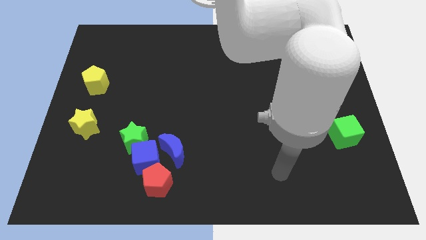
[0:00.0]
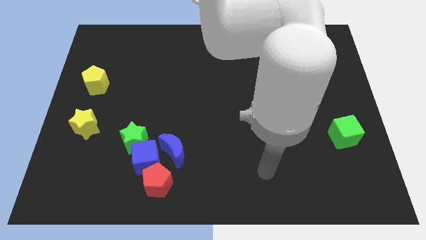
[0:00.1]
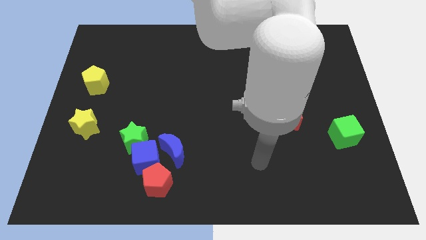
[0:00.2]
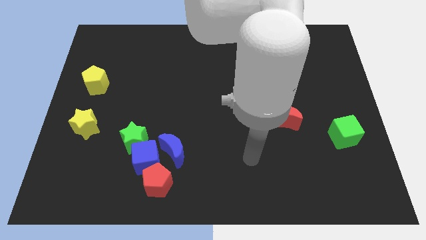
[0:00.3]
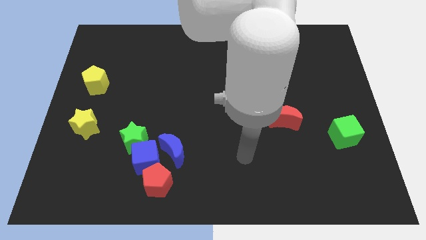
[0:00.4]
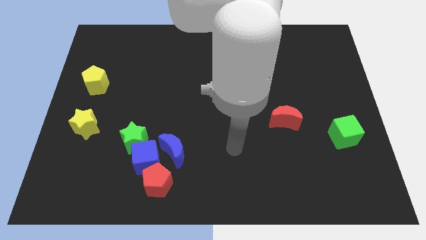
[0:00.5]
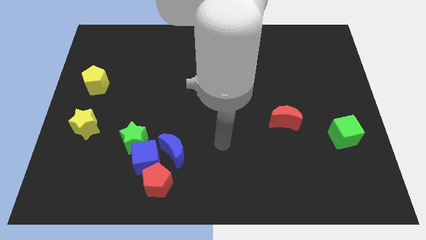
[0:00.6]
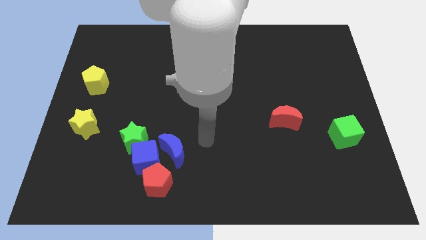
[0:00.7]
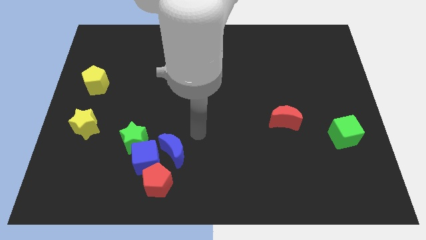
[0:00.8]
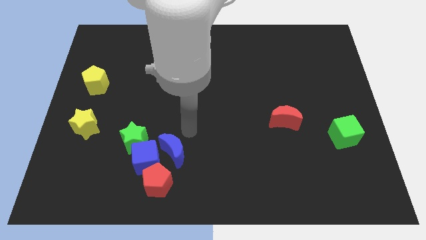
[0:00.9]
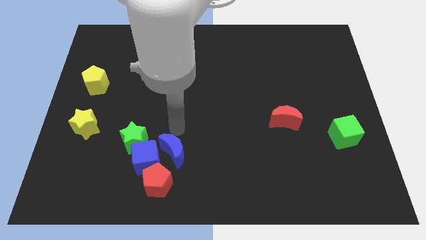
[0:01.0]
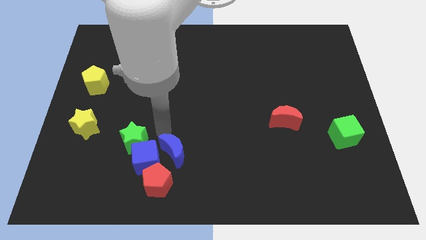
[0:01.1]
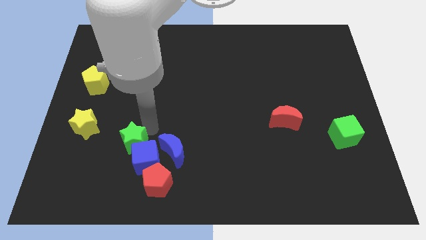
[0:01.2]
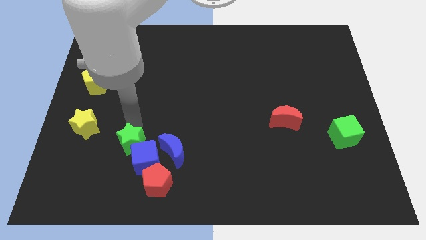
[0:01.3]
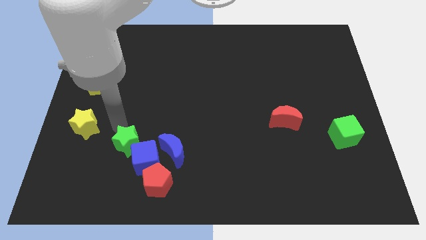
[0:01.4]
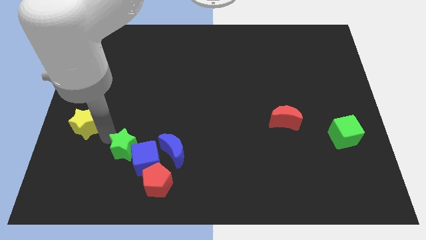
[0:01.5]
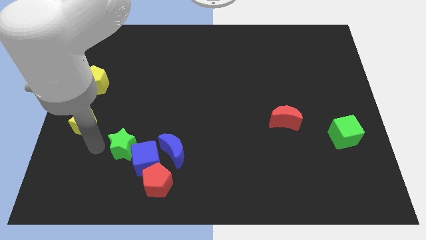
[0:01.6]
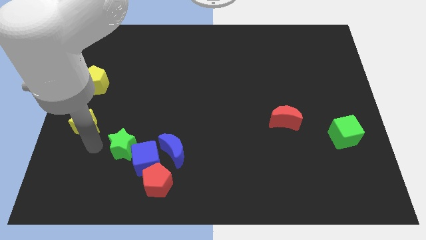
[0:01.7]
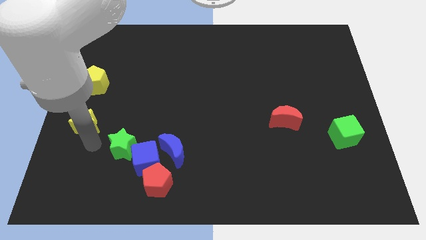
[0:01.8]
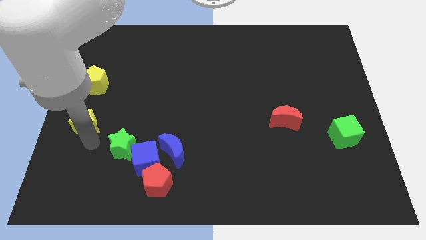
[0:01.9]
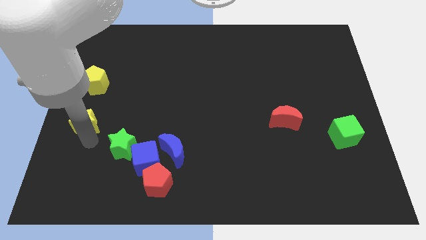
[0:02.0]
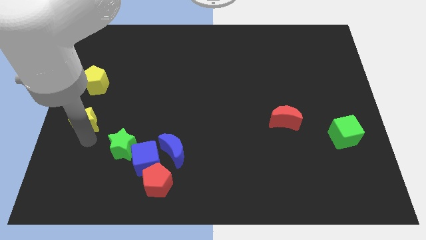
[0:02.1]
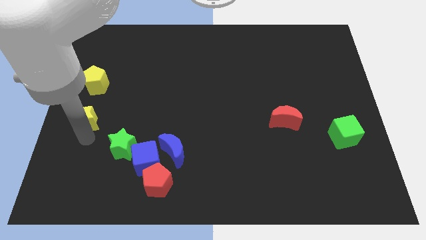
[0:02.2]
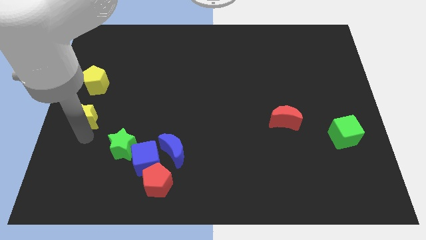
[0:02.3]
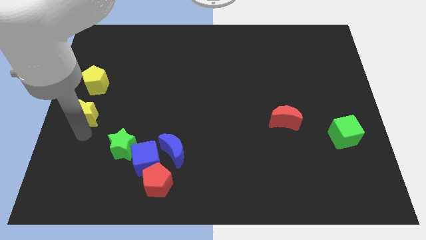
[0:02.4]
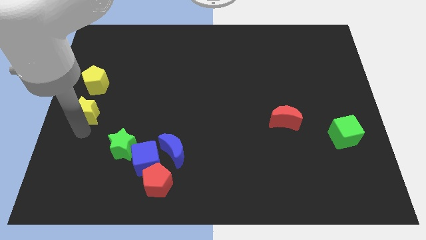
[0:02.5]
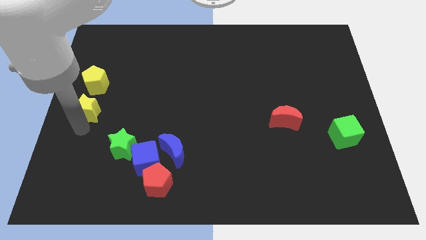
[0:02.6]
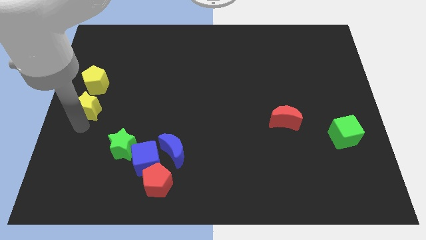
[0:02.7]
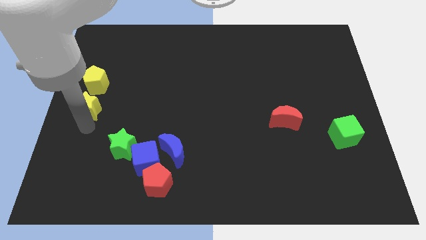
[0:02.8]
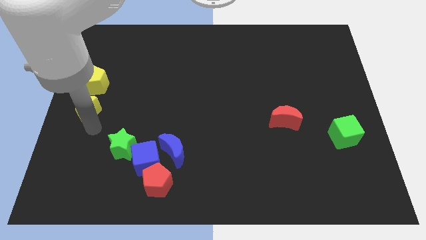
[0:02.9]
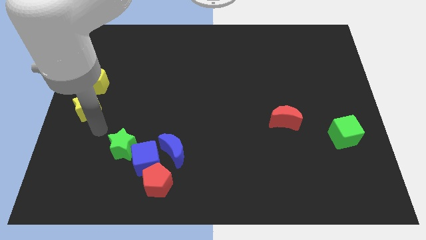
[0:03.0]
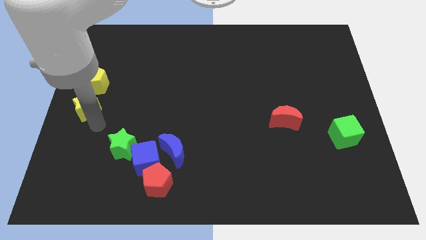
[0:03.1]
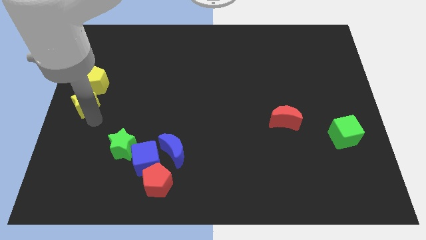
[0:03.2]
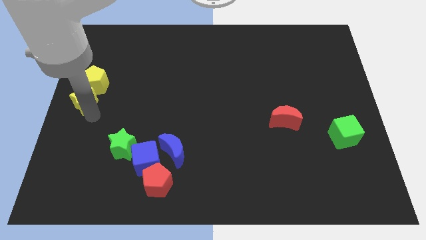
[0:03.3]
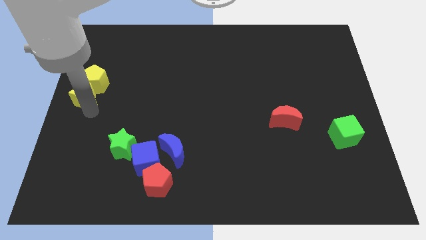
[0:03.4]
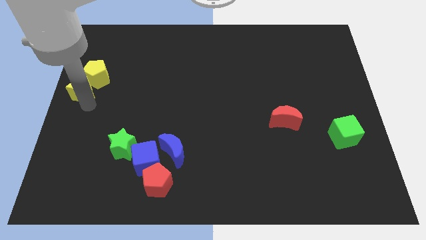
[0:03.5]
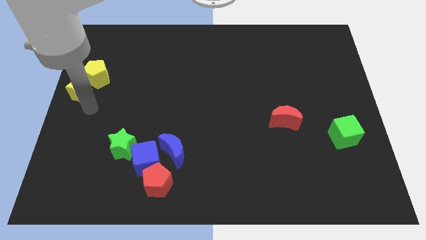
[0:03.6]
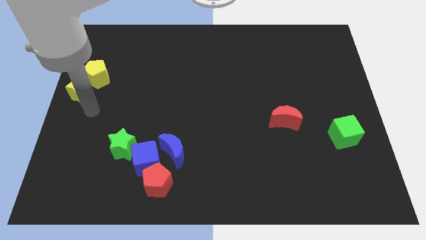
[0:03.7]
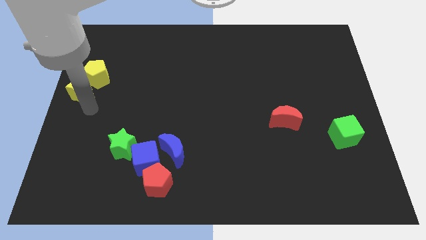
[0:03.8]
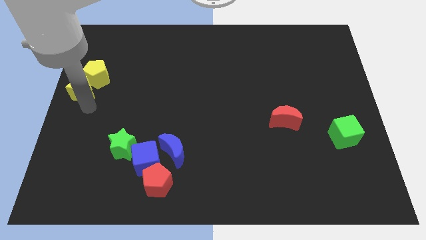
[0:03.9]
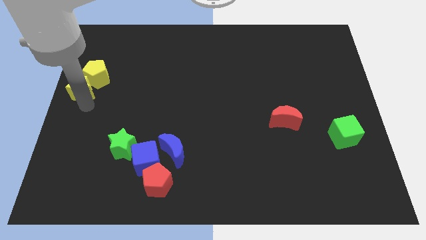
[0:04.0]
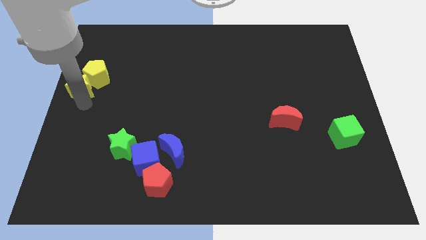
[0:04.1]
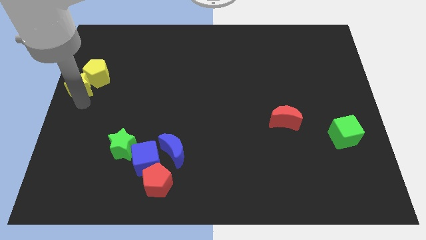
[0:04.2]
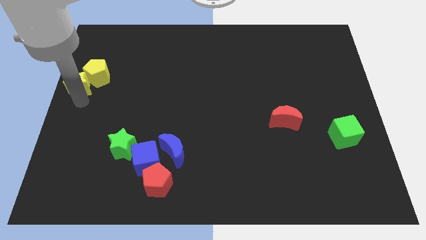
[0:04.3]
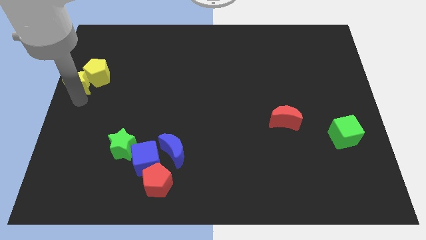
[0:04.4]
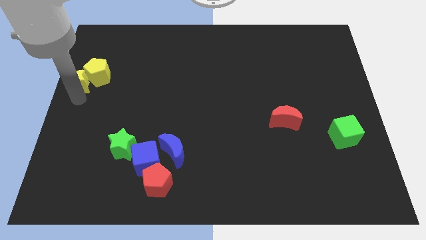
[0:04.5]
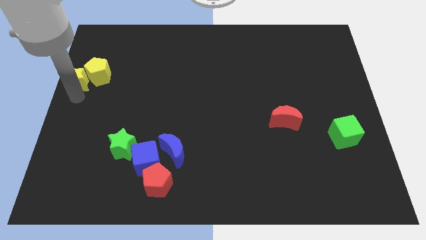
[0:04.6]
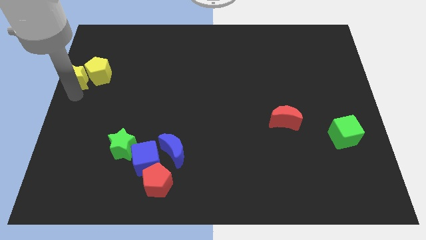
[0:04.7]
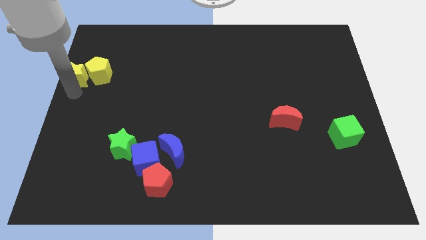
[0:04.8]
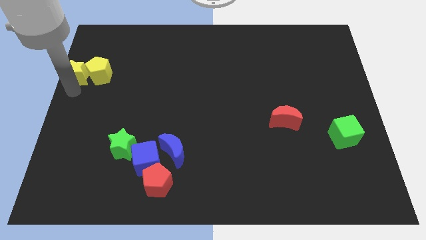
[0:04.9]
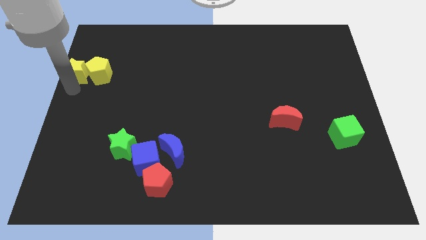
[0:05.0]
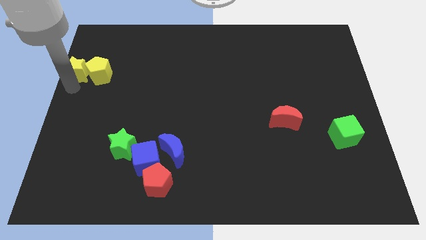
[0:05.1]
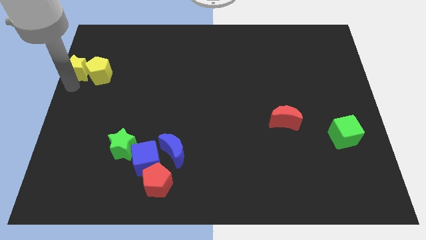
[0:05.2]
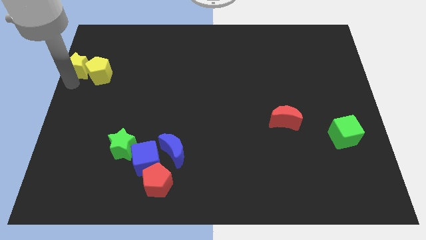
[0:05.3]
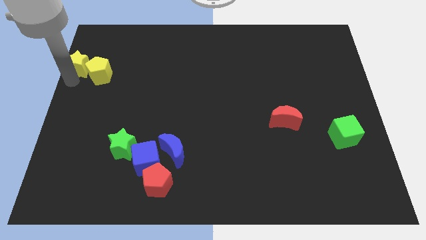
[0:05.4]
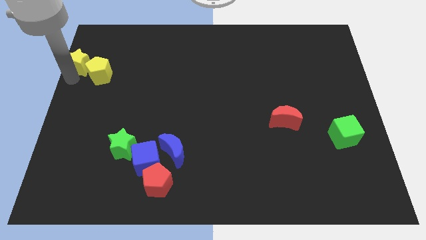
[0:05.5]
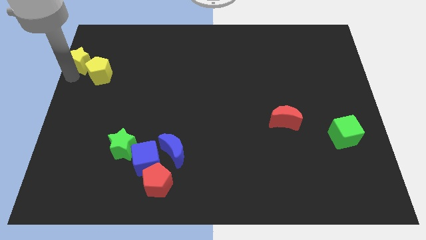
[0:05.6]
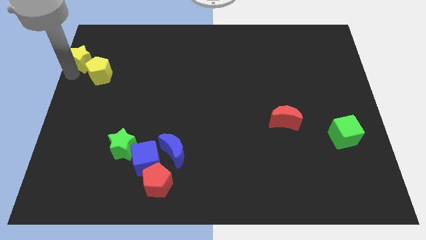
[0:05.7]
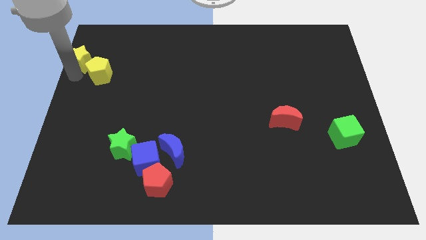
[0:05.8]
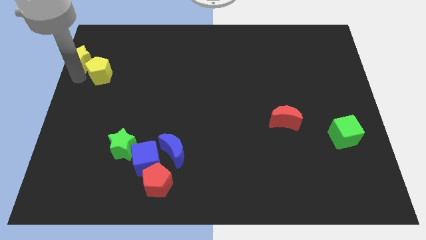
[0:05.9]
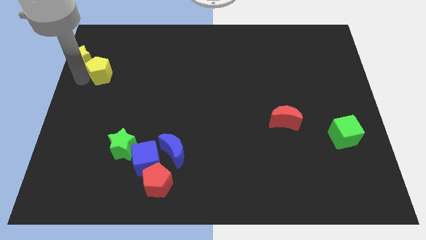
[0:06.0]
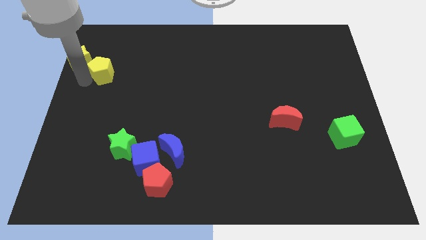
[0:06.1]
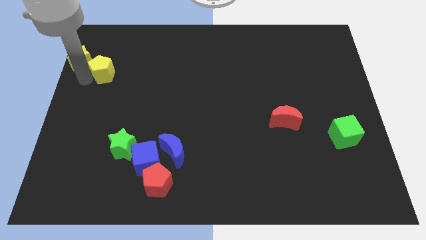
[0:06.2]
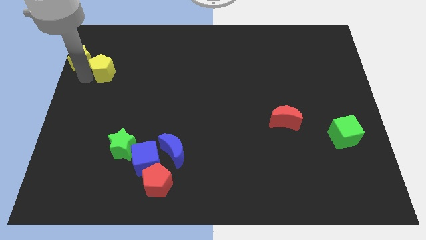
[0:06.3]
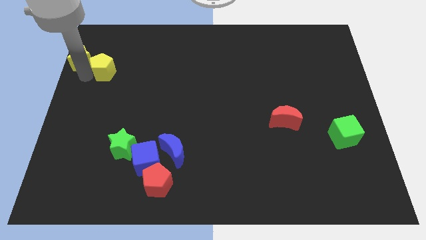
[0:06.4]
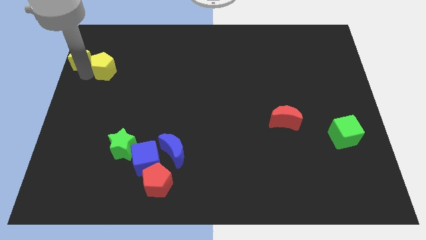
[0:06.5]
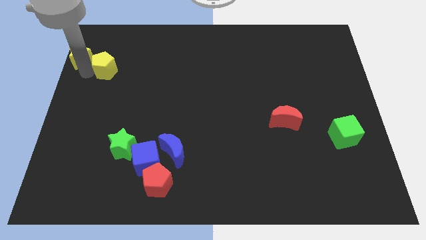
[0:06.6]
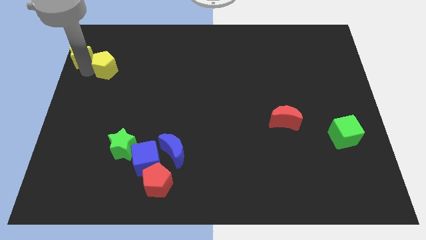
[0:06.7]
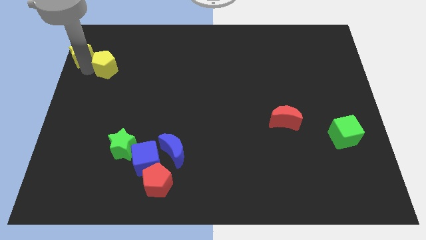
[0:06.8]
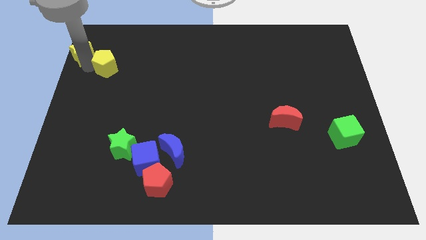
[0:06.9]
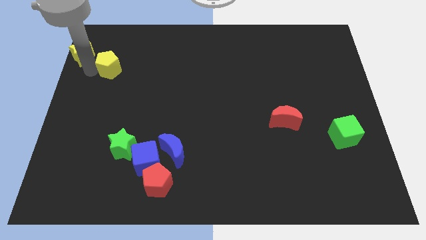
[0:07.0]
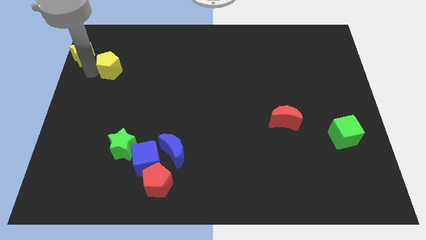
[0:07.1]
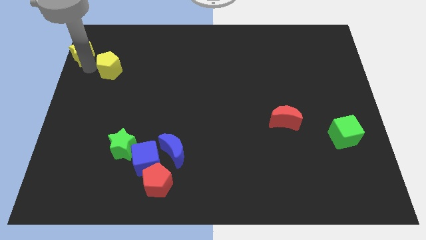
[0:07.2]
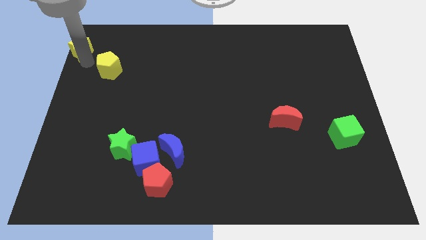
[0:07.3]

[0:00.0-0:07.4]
push the yellow star to the top left of the board
